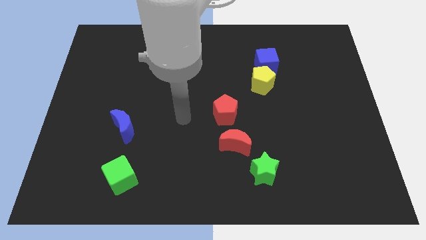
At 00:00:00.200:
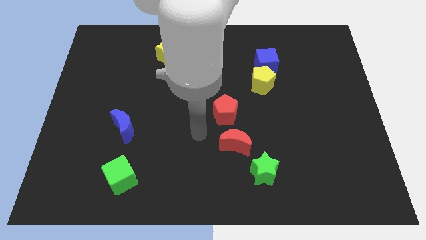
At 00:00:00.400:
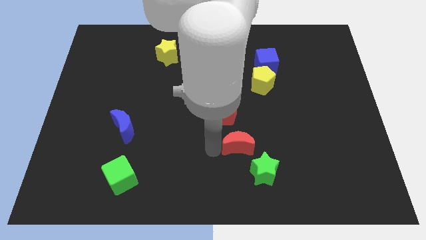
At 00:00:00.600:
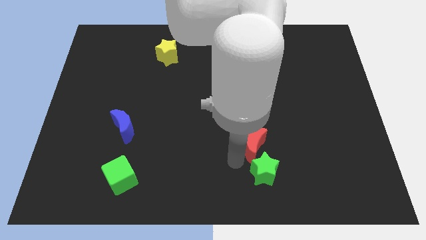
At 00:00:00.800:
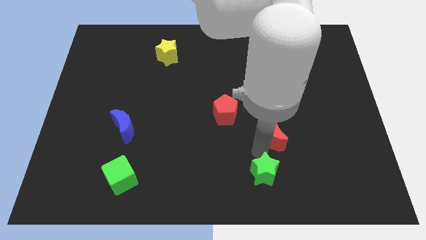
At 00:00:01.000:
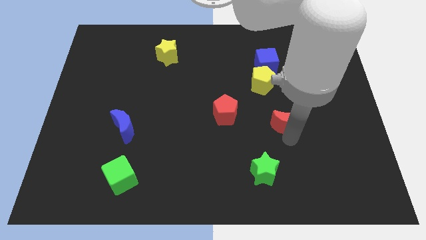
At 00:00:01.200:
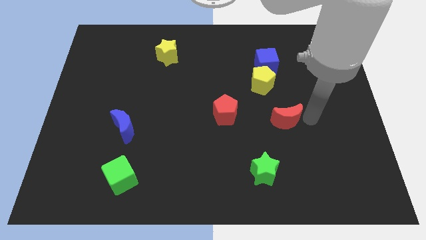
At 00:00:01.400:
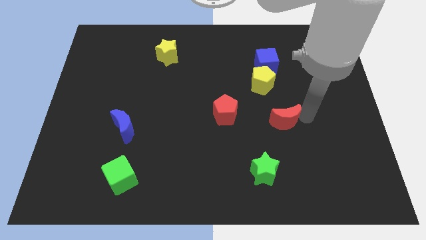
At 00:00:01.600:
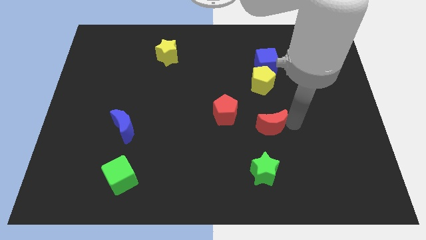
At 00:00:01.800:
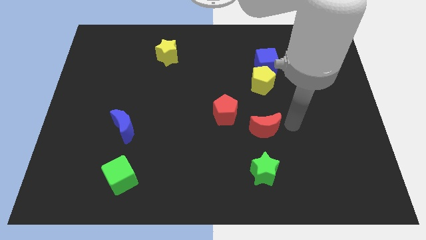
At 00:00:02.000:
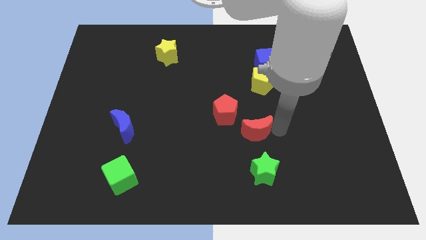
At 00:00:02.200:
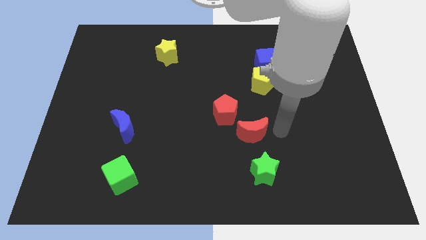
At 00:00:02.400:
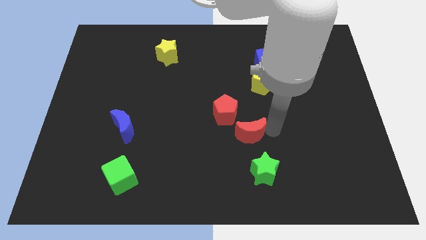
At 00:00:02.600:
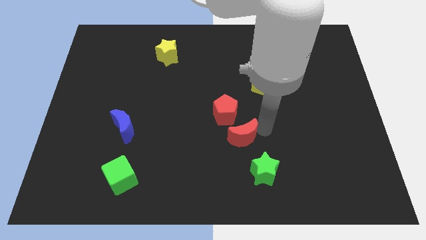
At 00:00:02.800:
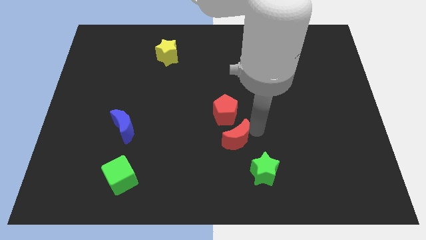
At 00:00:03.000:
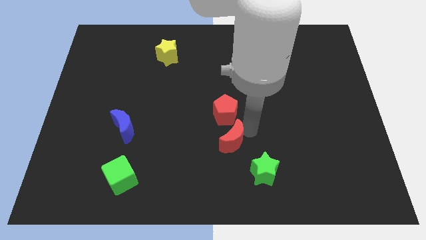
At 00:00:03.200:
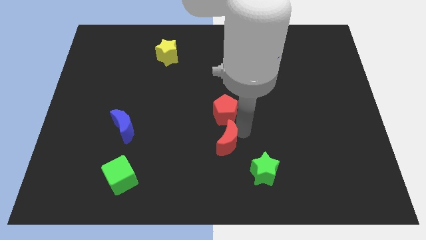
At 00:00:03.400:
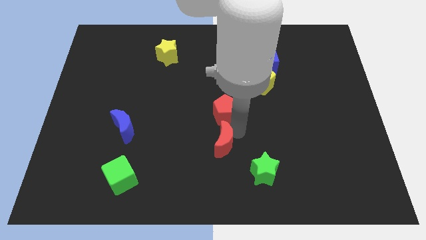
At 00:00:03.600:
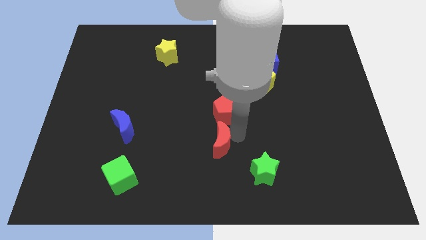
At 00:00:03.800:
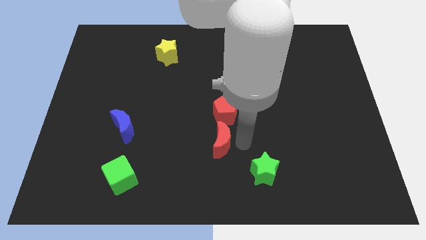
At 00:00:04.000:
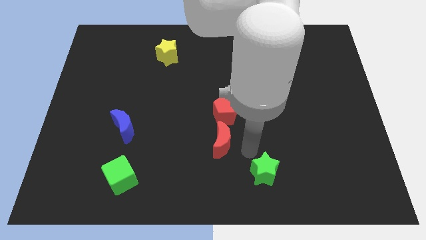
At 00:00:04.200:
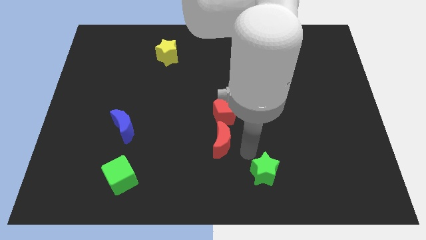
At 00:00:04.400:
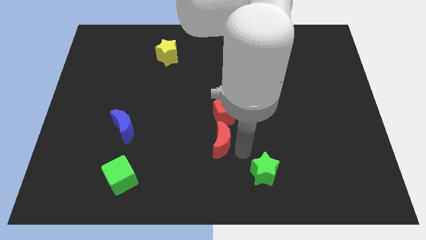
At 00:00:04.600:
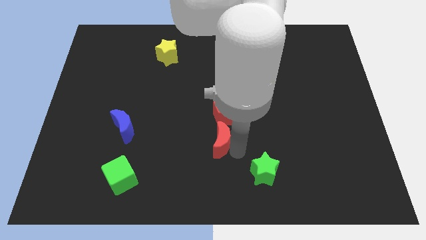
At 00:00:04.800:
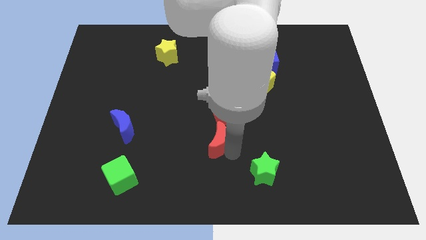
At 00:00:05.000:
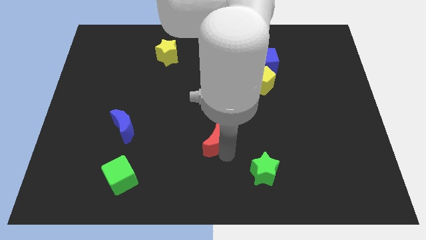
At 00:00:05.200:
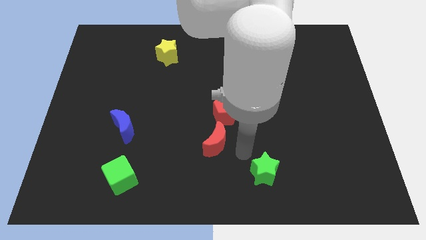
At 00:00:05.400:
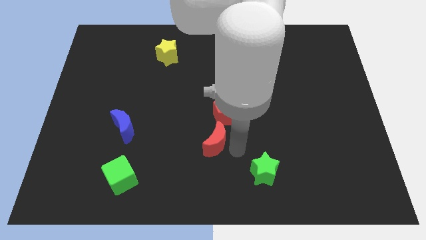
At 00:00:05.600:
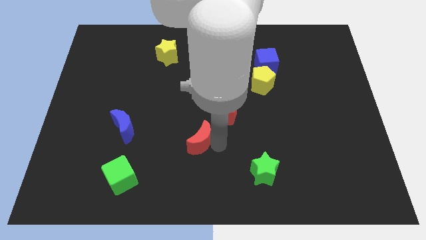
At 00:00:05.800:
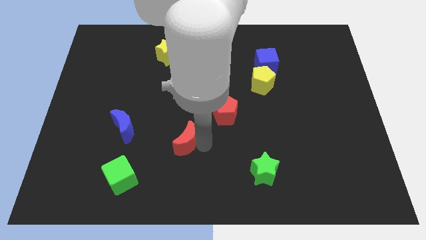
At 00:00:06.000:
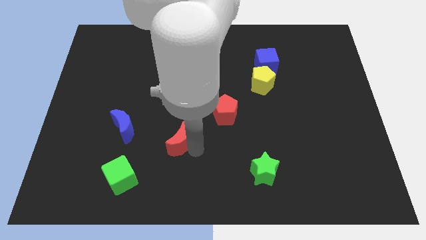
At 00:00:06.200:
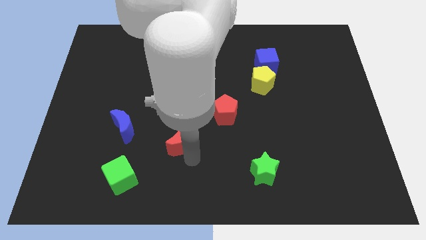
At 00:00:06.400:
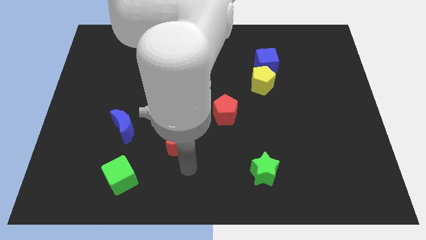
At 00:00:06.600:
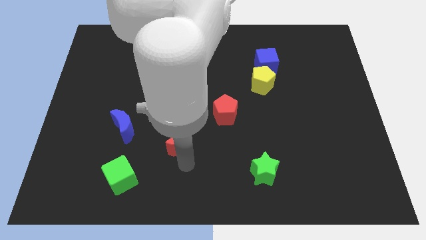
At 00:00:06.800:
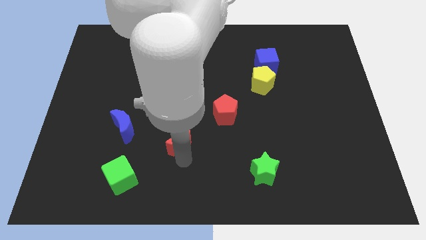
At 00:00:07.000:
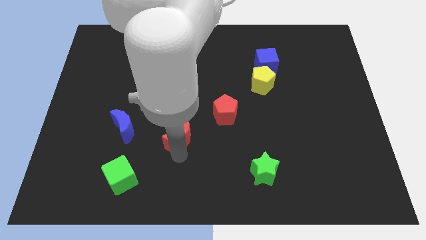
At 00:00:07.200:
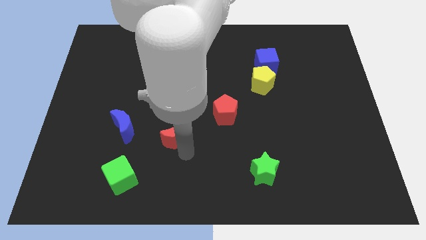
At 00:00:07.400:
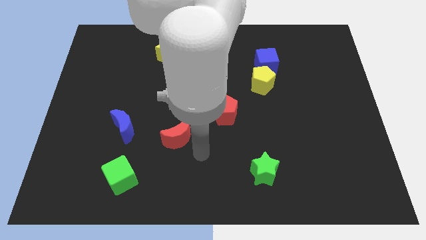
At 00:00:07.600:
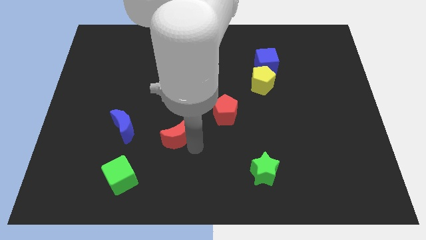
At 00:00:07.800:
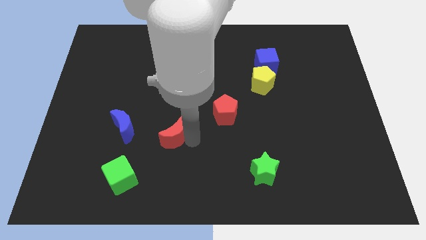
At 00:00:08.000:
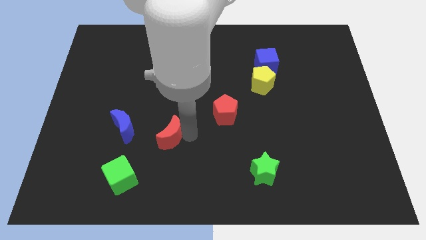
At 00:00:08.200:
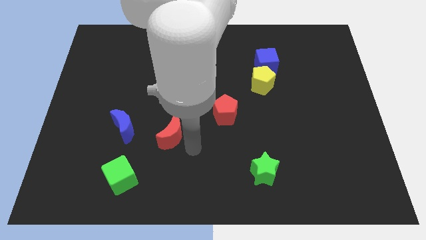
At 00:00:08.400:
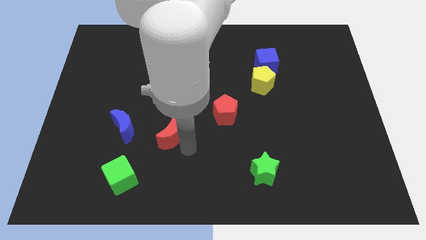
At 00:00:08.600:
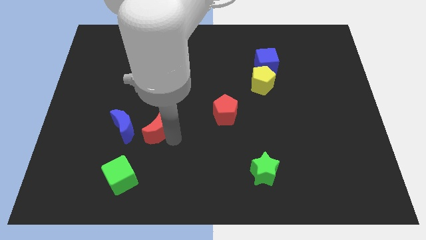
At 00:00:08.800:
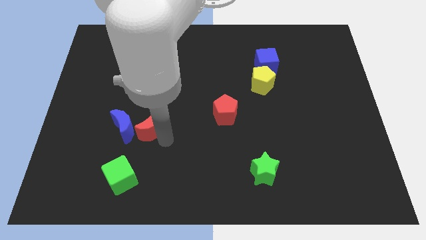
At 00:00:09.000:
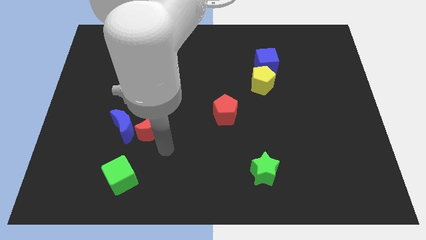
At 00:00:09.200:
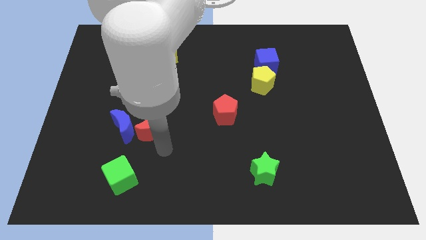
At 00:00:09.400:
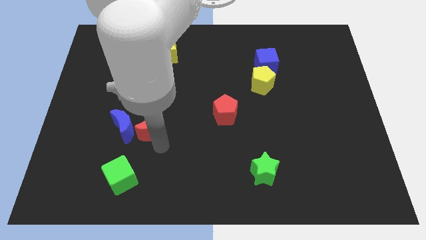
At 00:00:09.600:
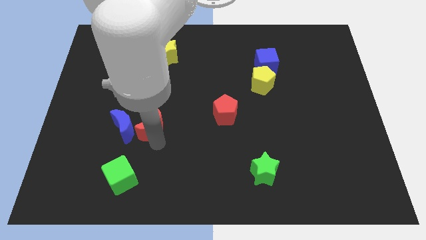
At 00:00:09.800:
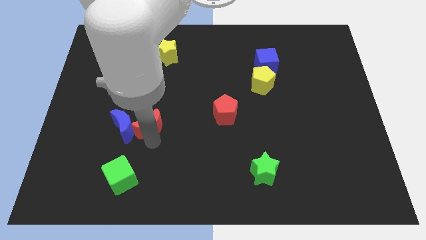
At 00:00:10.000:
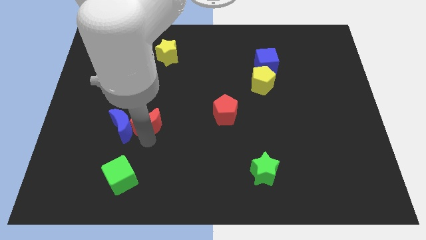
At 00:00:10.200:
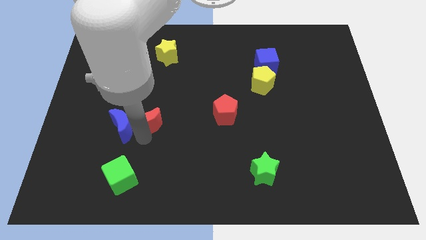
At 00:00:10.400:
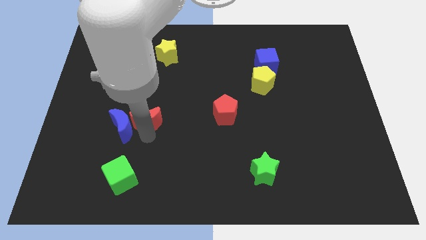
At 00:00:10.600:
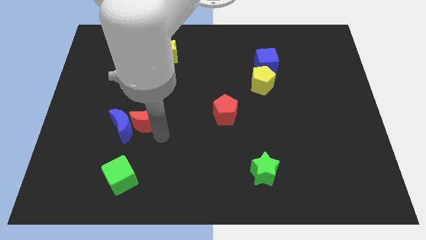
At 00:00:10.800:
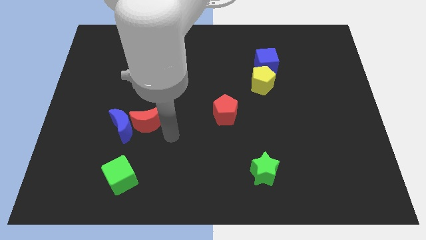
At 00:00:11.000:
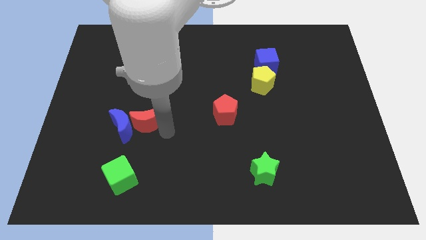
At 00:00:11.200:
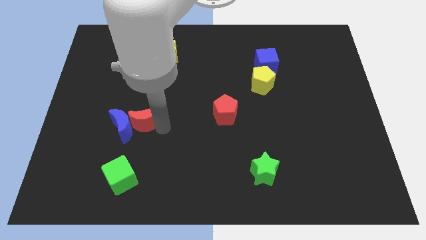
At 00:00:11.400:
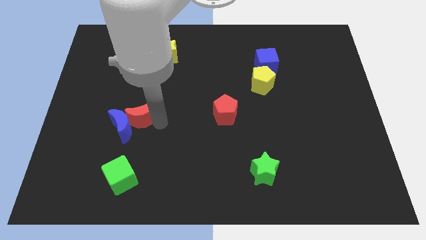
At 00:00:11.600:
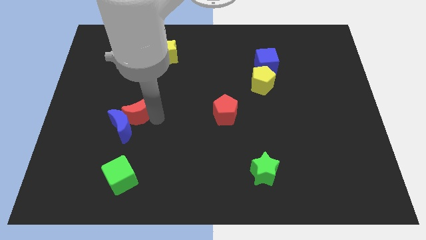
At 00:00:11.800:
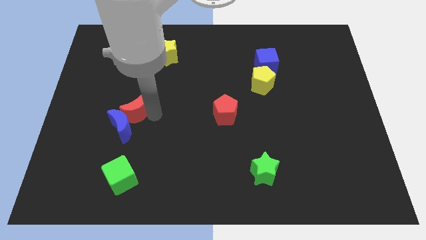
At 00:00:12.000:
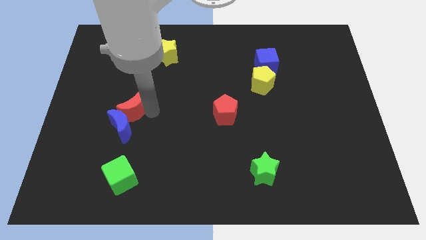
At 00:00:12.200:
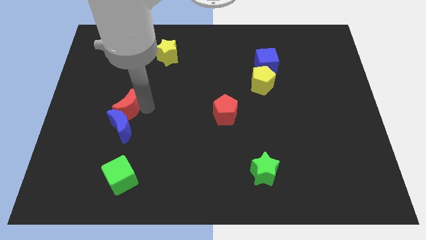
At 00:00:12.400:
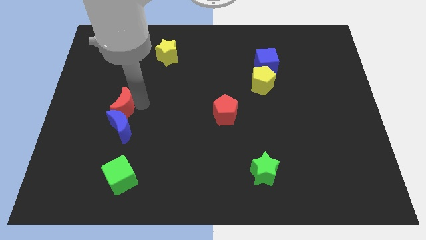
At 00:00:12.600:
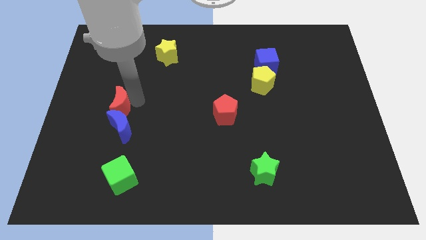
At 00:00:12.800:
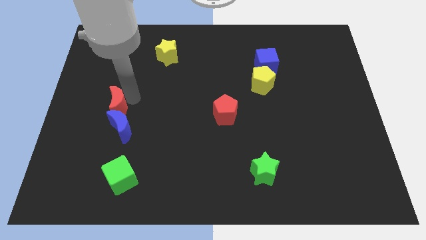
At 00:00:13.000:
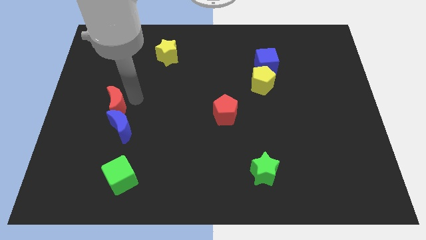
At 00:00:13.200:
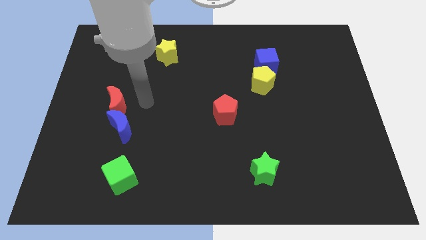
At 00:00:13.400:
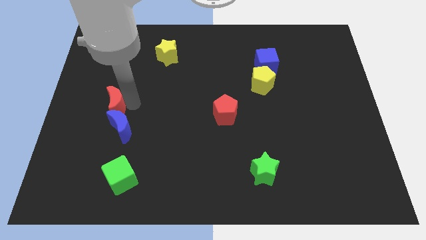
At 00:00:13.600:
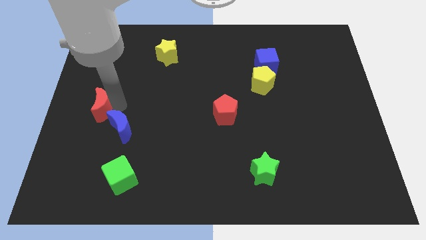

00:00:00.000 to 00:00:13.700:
push the red moon to the left side of the board
